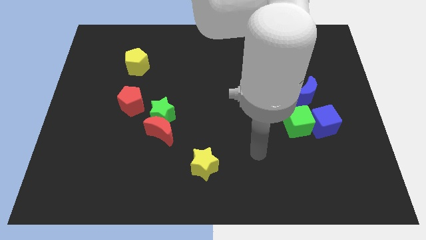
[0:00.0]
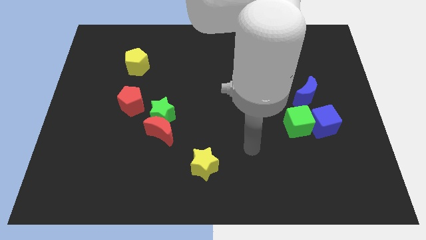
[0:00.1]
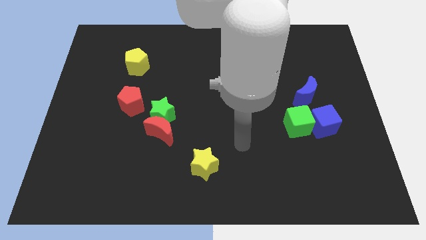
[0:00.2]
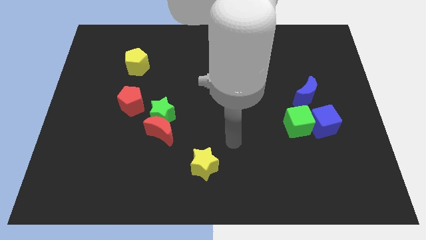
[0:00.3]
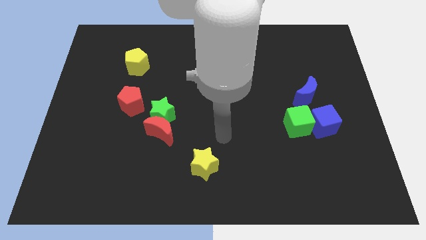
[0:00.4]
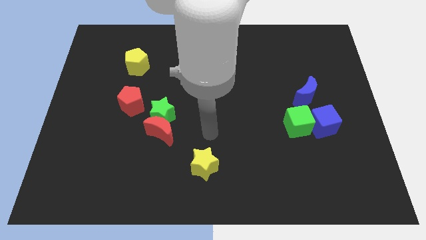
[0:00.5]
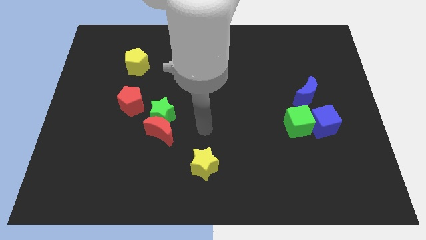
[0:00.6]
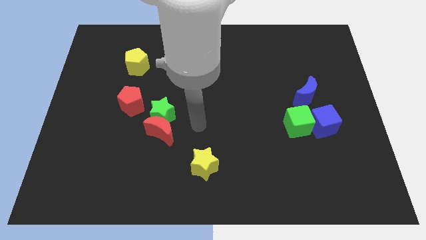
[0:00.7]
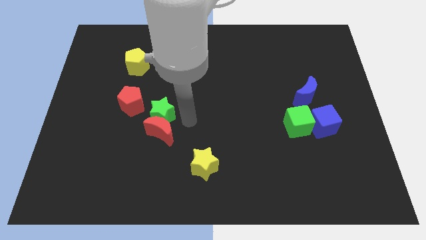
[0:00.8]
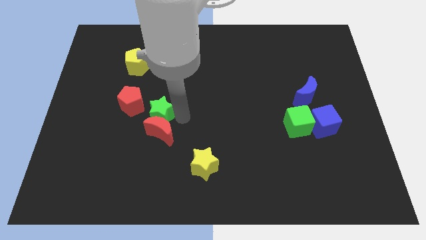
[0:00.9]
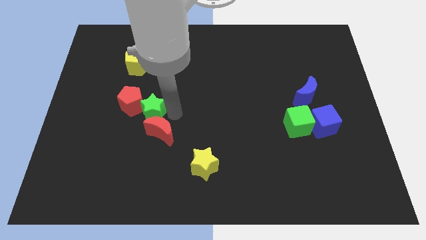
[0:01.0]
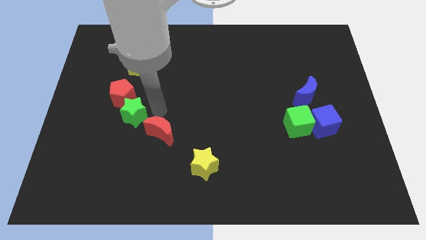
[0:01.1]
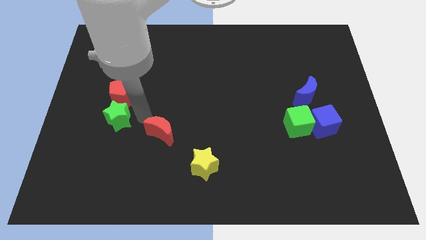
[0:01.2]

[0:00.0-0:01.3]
pull the red moon apart from the green star

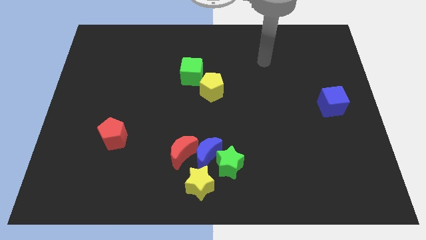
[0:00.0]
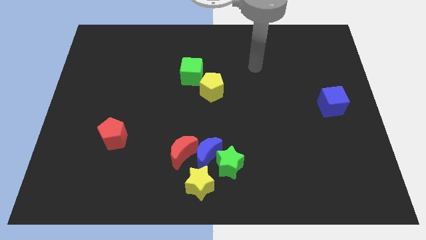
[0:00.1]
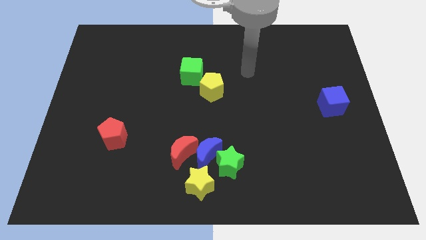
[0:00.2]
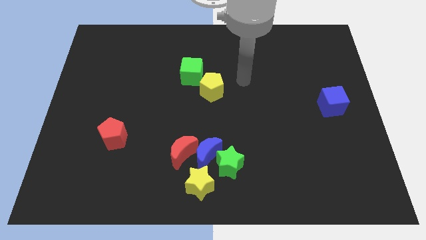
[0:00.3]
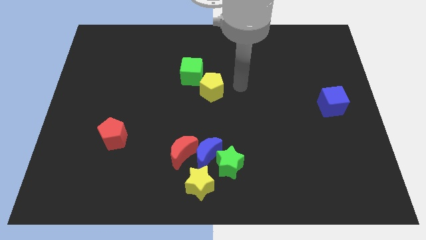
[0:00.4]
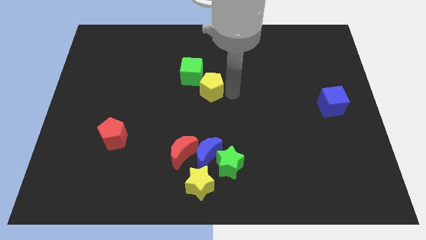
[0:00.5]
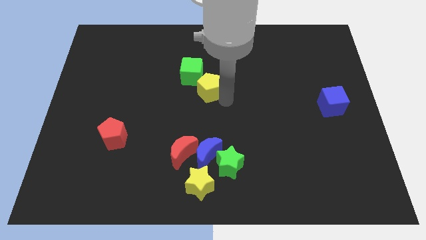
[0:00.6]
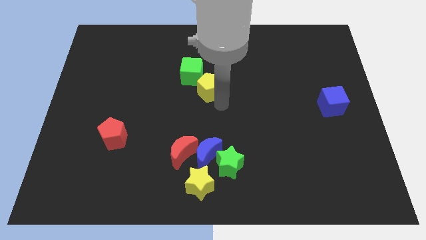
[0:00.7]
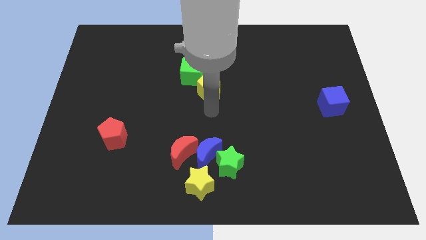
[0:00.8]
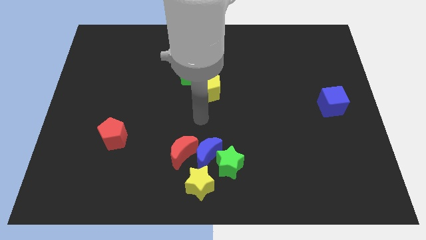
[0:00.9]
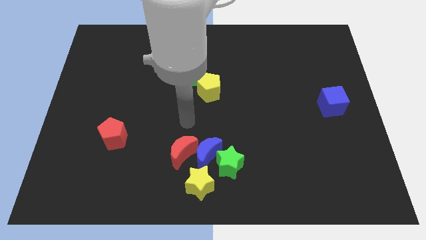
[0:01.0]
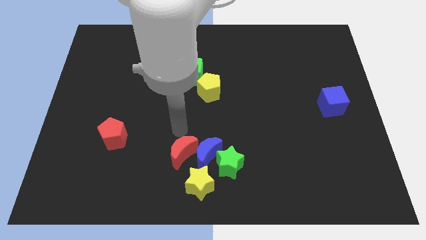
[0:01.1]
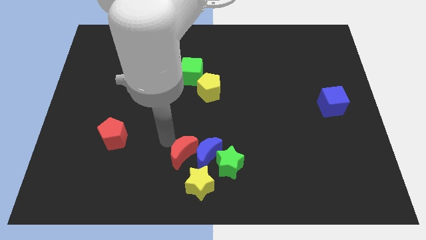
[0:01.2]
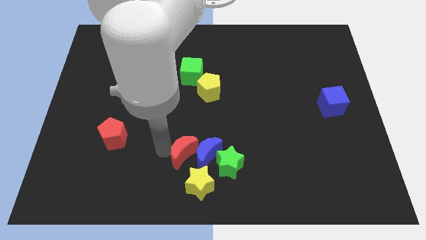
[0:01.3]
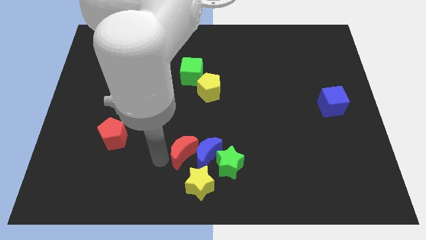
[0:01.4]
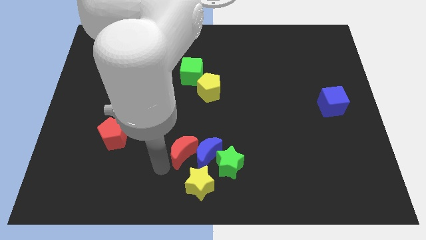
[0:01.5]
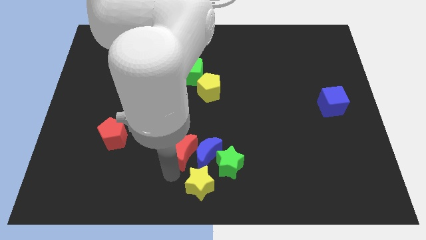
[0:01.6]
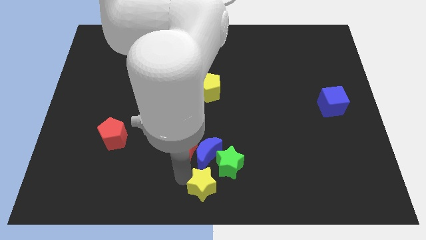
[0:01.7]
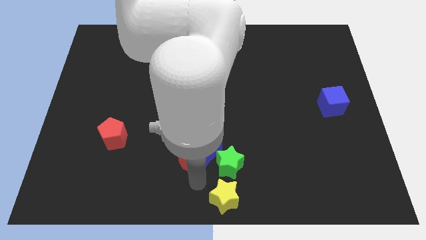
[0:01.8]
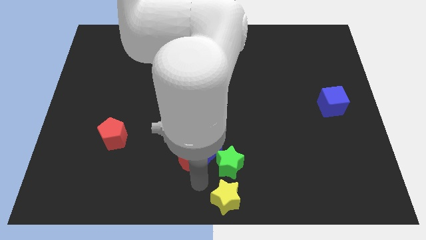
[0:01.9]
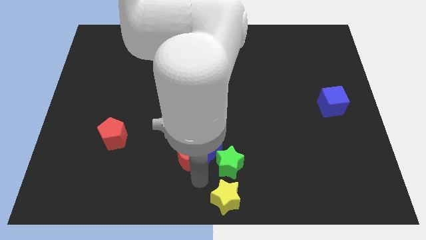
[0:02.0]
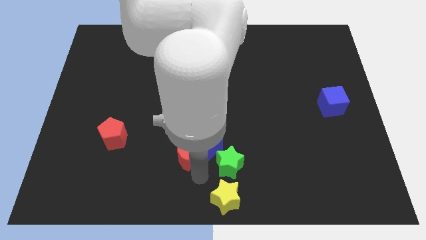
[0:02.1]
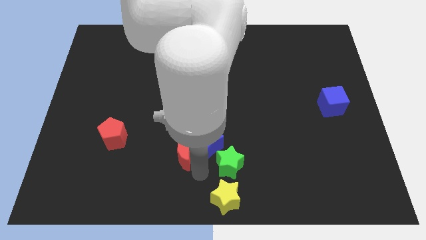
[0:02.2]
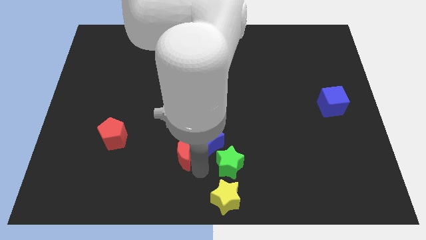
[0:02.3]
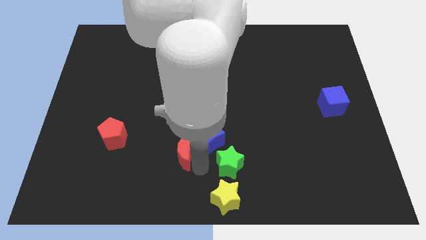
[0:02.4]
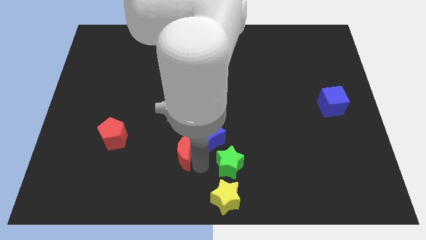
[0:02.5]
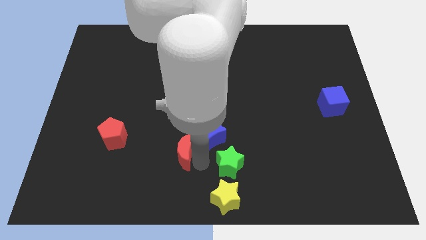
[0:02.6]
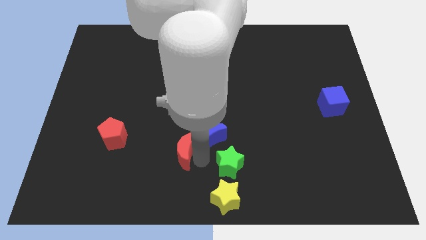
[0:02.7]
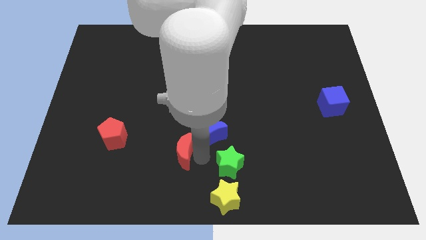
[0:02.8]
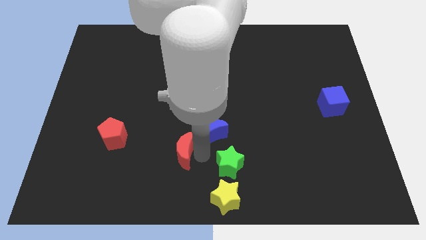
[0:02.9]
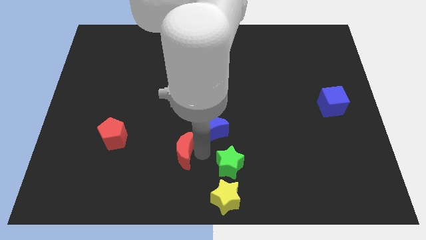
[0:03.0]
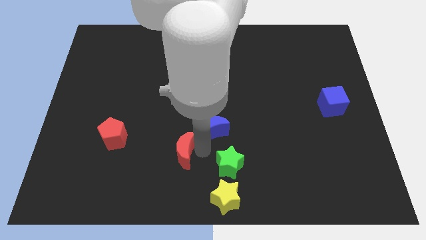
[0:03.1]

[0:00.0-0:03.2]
separate the blue moon from the red moon, green star, and yellow star

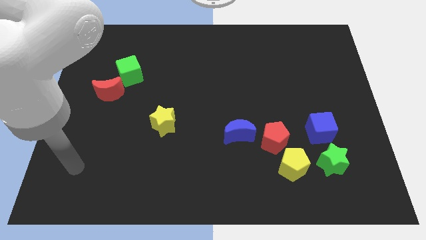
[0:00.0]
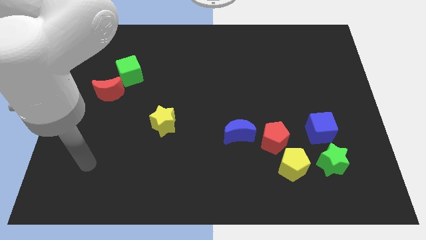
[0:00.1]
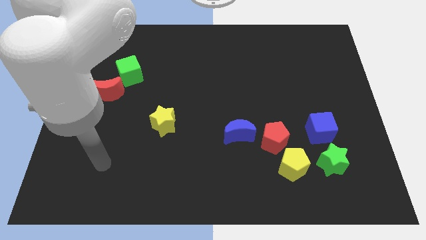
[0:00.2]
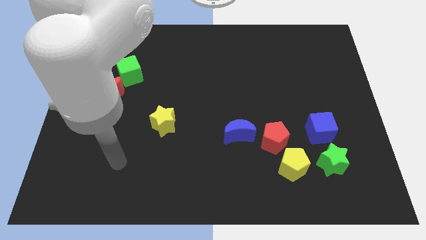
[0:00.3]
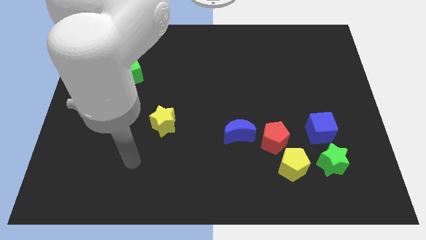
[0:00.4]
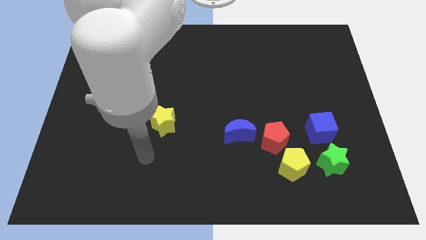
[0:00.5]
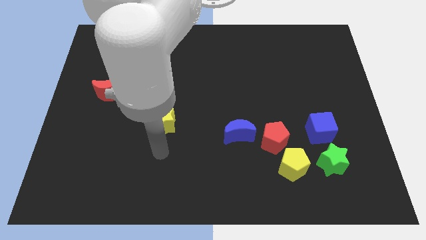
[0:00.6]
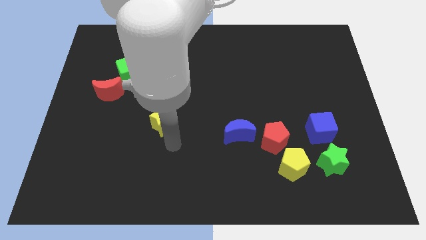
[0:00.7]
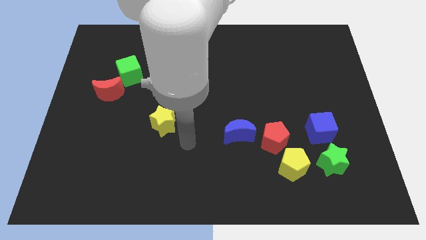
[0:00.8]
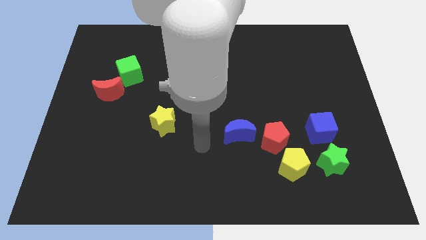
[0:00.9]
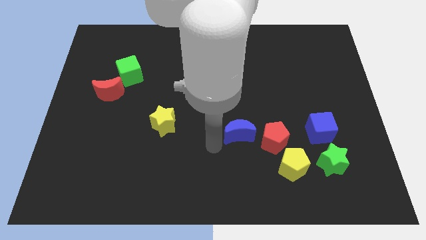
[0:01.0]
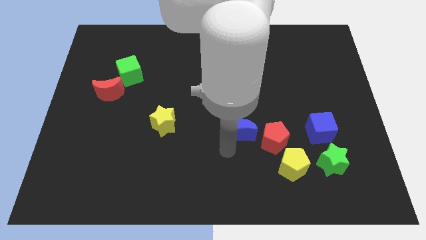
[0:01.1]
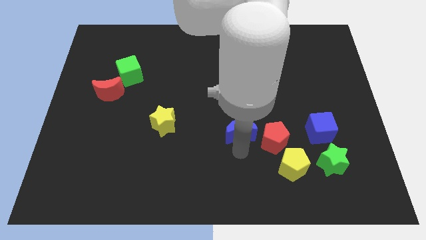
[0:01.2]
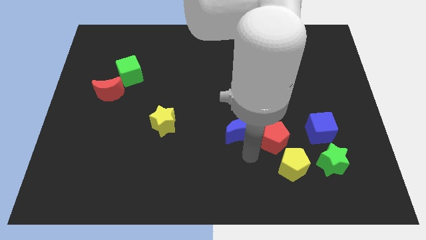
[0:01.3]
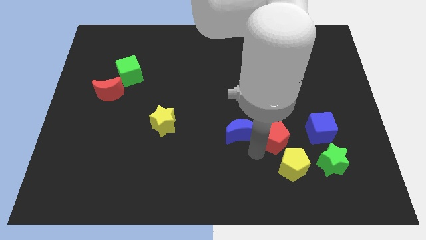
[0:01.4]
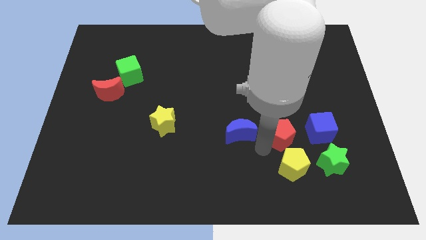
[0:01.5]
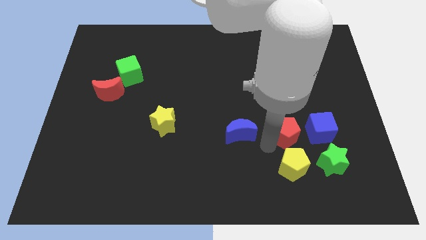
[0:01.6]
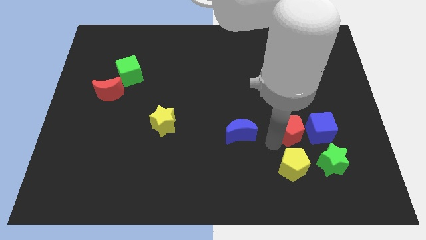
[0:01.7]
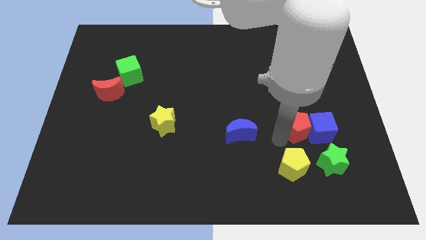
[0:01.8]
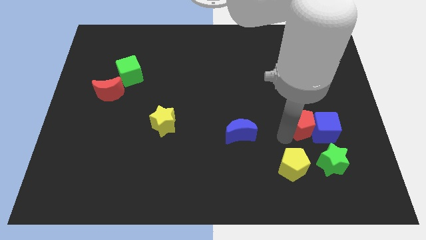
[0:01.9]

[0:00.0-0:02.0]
separate the red pentagon from the yellow pentagon and blue moon

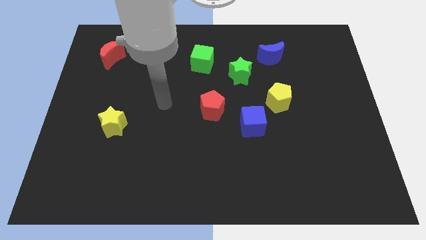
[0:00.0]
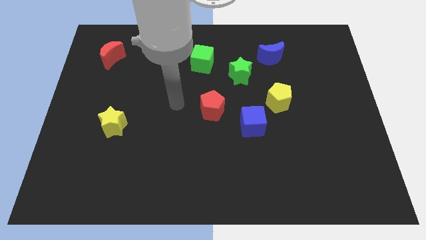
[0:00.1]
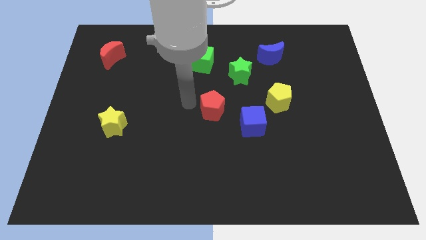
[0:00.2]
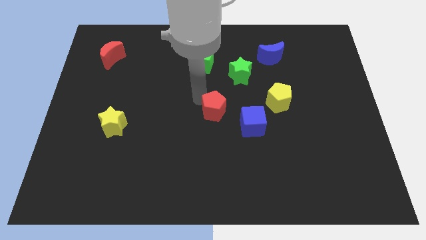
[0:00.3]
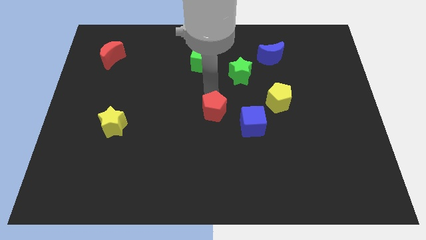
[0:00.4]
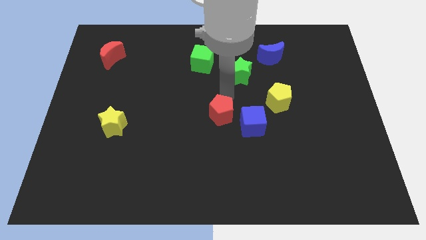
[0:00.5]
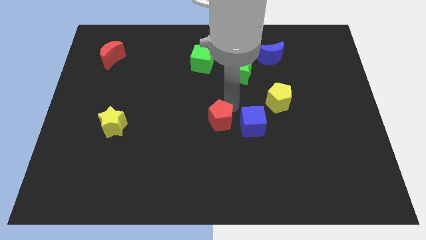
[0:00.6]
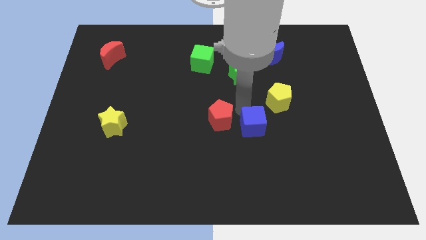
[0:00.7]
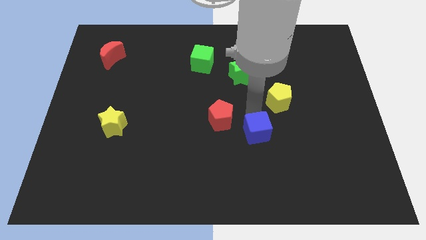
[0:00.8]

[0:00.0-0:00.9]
move the yellow pentagon away from the blue cube

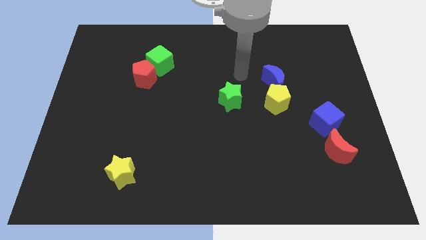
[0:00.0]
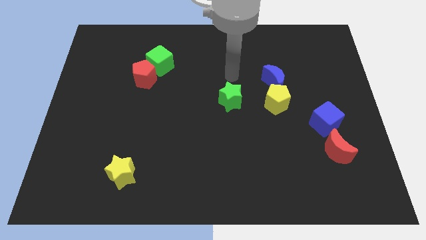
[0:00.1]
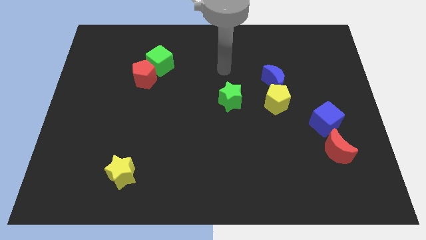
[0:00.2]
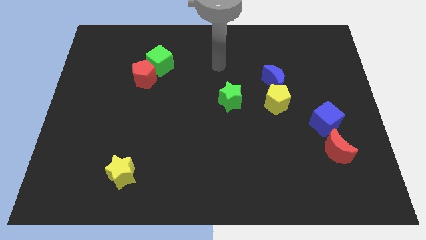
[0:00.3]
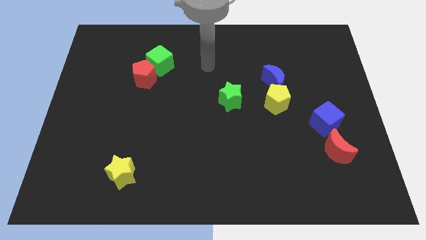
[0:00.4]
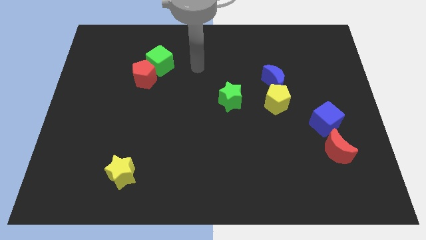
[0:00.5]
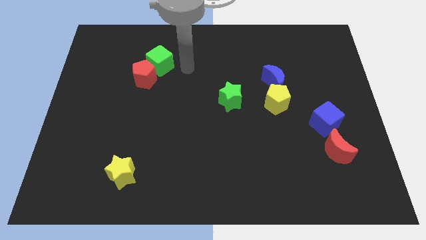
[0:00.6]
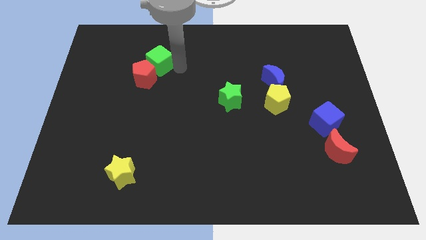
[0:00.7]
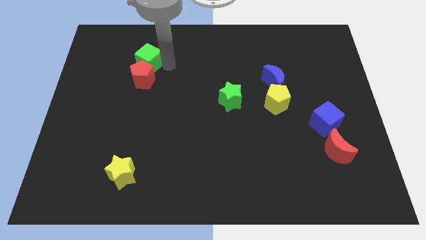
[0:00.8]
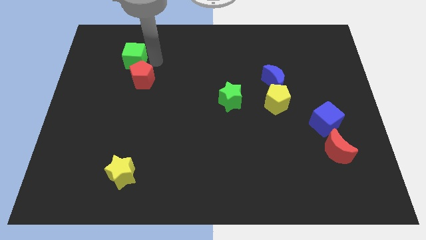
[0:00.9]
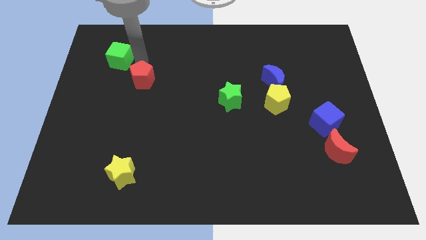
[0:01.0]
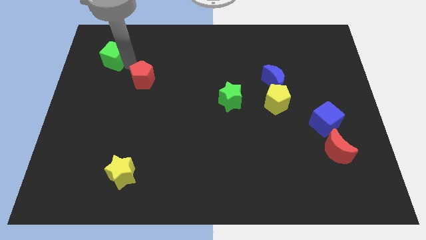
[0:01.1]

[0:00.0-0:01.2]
move the red pentagon away from the green cube

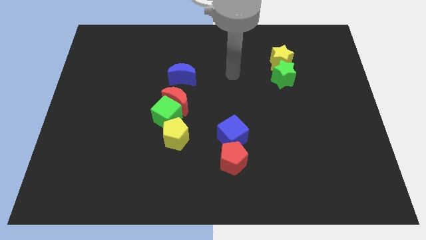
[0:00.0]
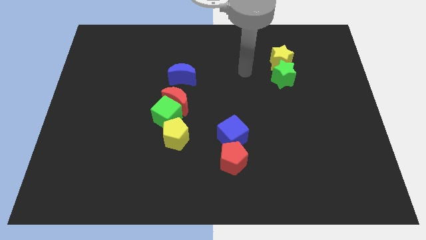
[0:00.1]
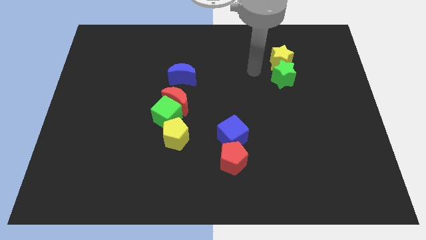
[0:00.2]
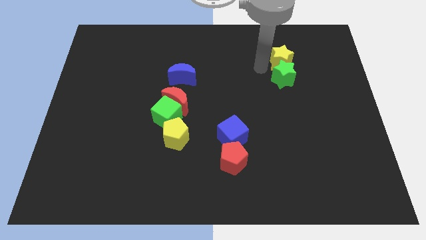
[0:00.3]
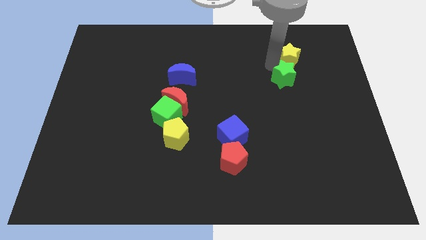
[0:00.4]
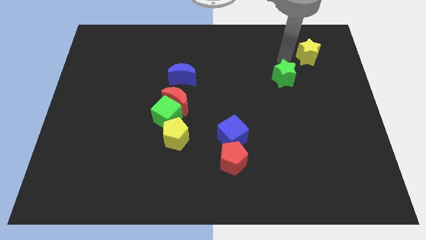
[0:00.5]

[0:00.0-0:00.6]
pull the green star apart from the yellow star
